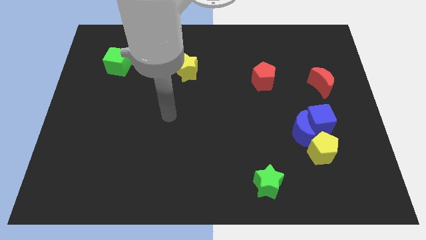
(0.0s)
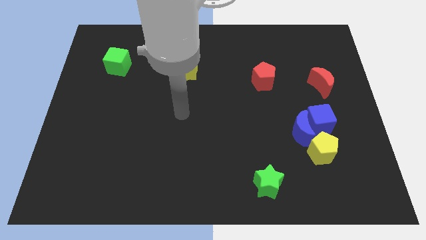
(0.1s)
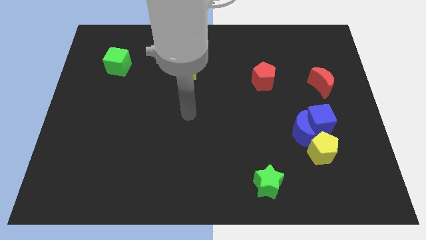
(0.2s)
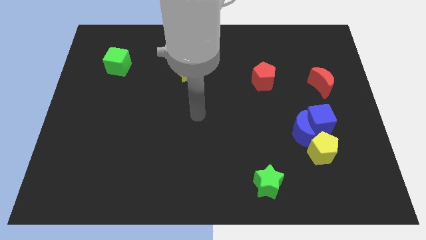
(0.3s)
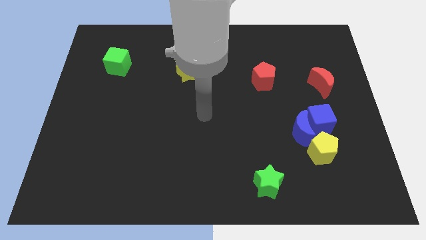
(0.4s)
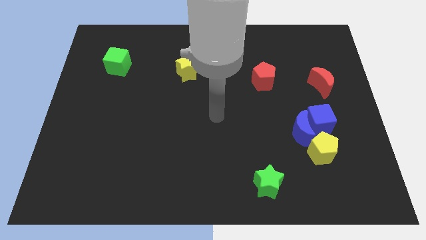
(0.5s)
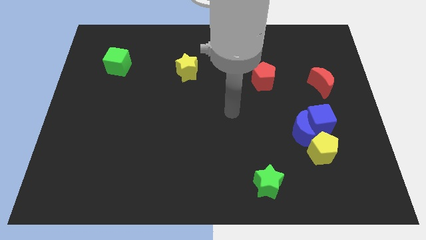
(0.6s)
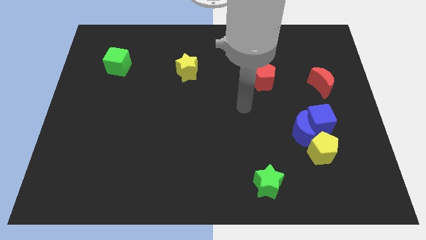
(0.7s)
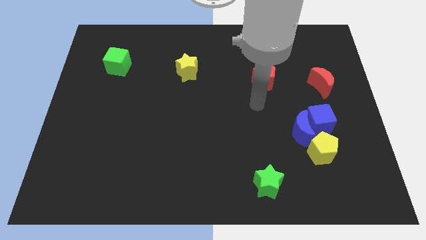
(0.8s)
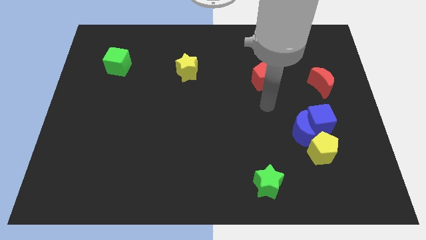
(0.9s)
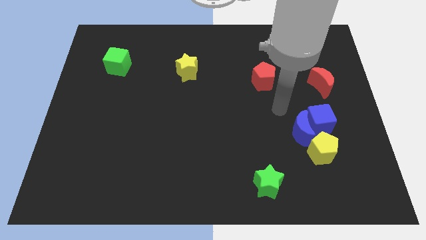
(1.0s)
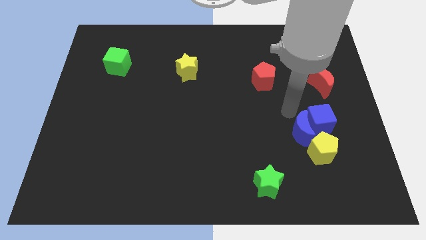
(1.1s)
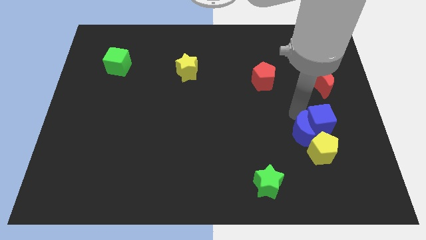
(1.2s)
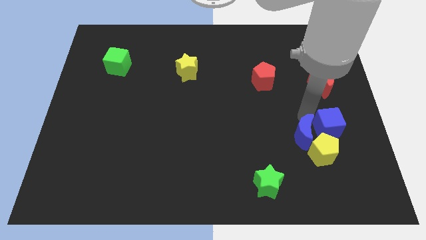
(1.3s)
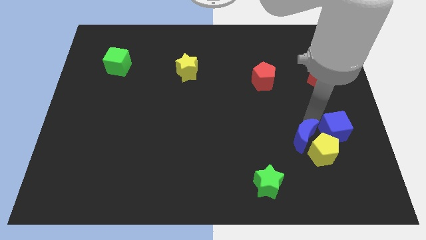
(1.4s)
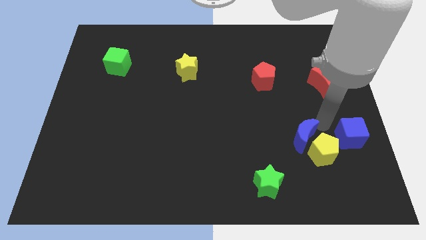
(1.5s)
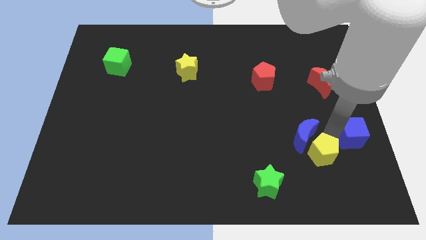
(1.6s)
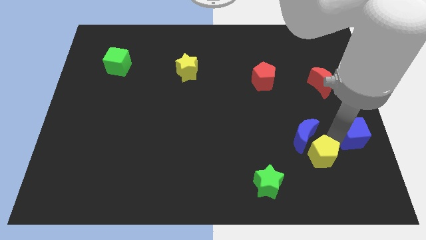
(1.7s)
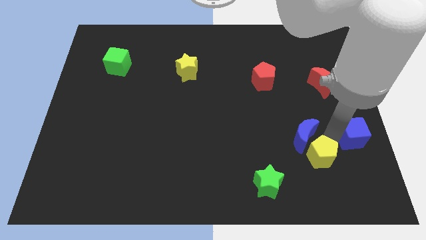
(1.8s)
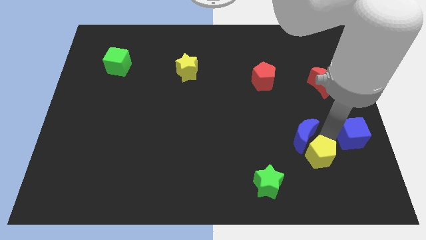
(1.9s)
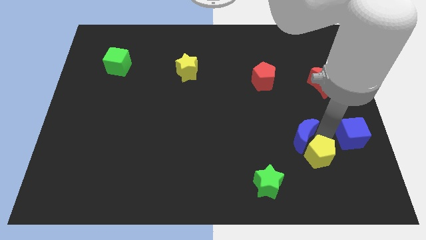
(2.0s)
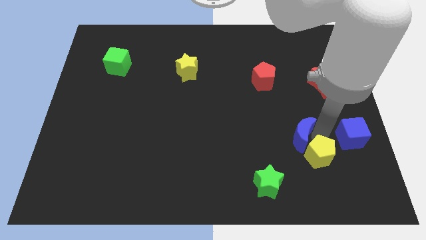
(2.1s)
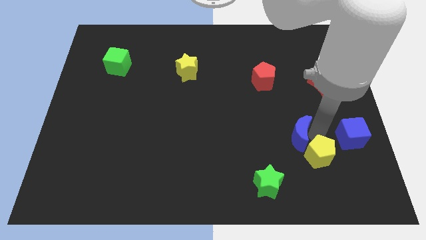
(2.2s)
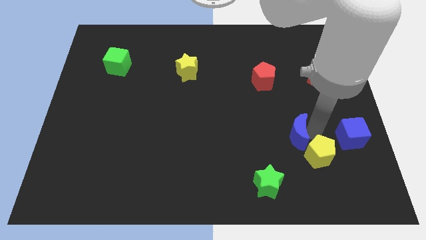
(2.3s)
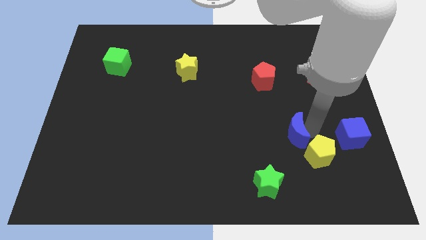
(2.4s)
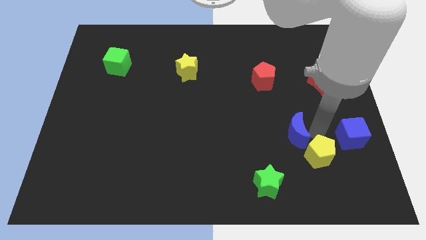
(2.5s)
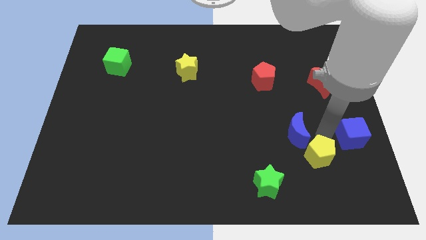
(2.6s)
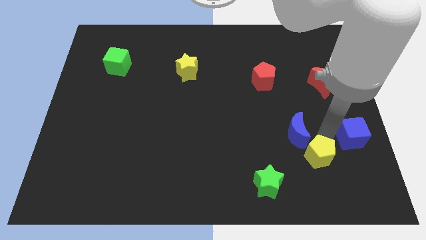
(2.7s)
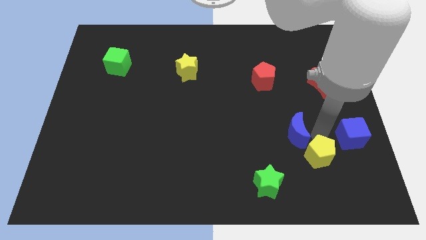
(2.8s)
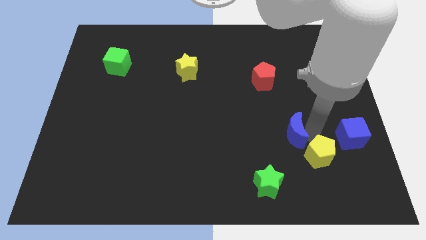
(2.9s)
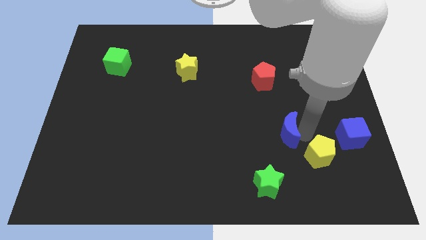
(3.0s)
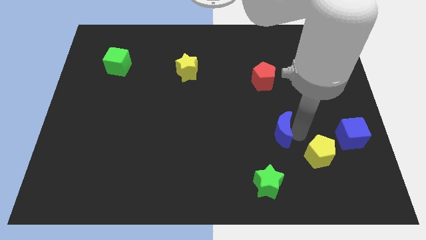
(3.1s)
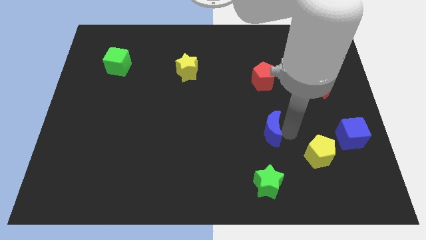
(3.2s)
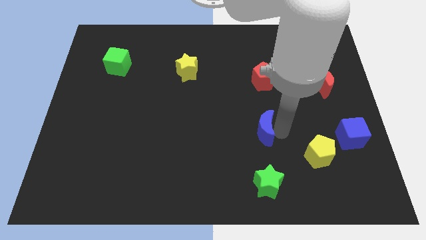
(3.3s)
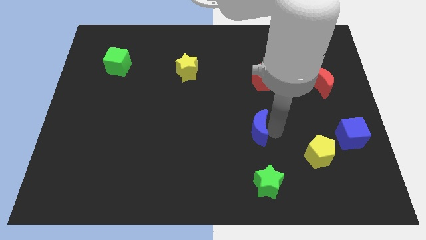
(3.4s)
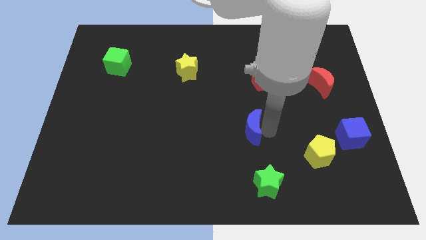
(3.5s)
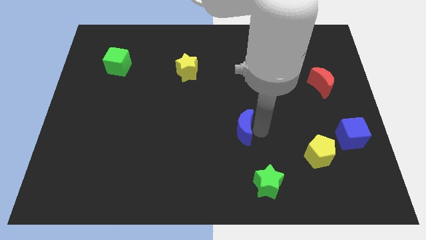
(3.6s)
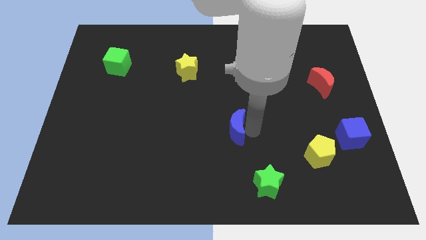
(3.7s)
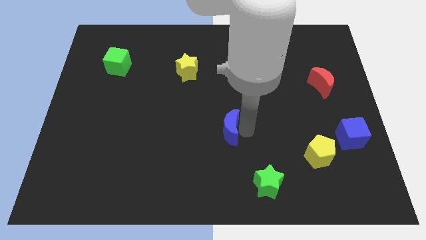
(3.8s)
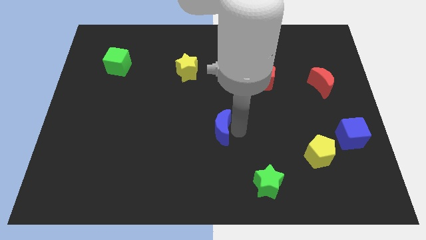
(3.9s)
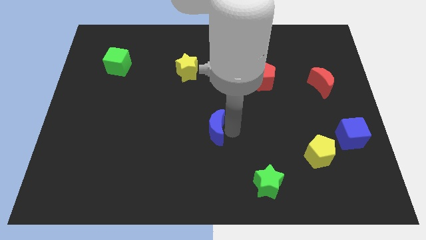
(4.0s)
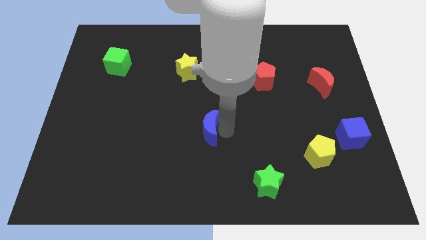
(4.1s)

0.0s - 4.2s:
push the blue moon to the left

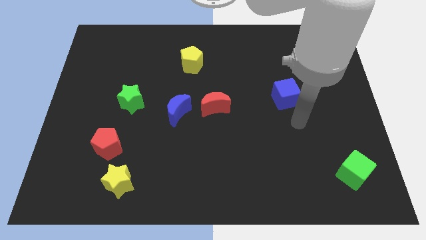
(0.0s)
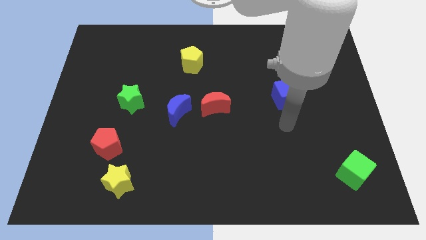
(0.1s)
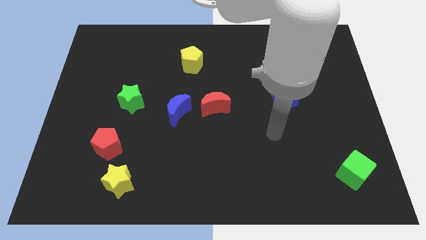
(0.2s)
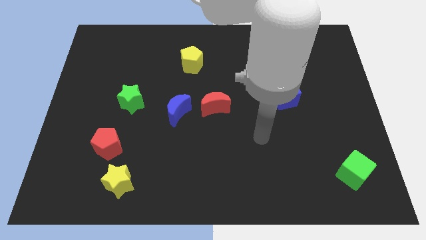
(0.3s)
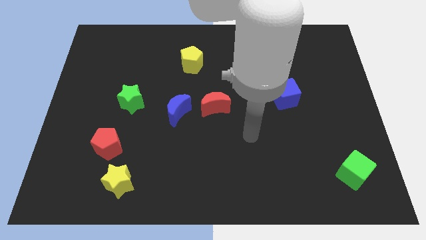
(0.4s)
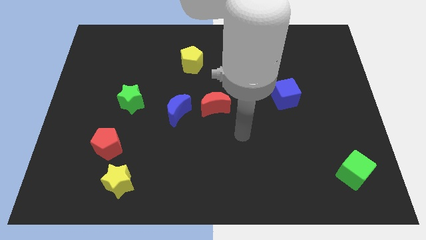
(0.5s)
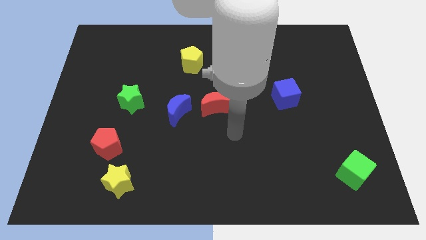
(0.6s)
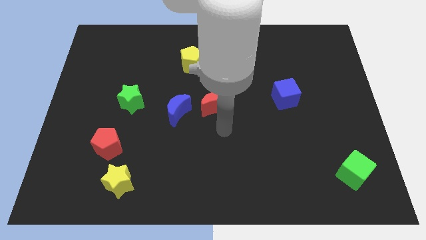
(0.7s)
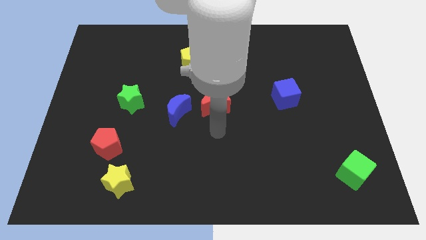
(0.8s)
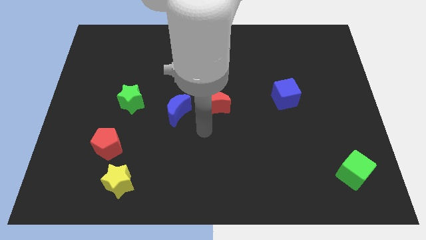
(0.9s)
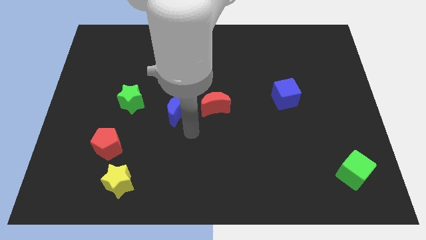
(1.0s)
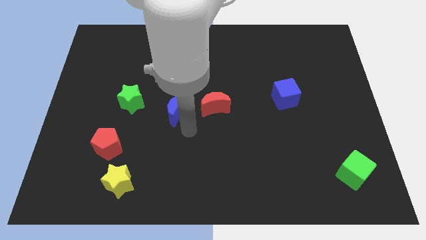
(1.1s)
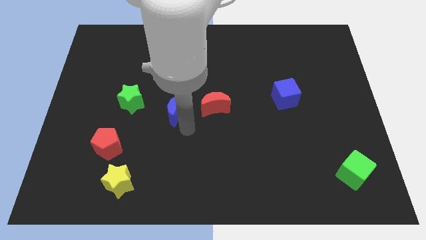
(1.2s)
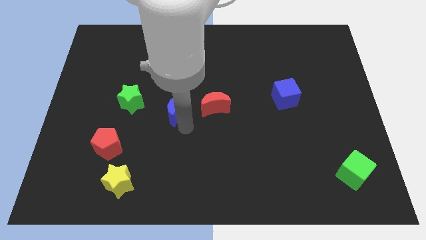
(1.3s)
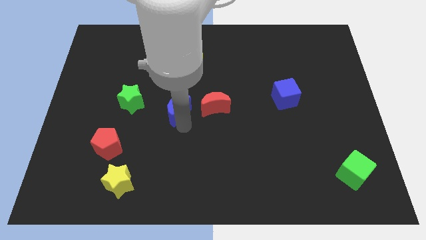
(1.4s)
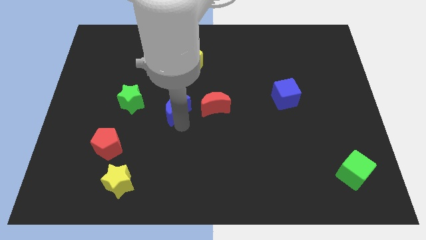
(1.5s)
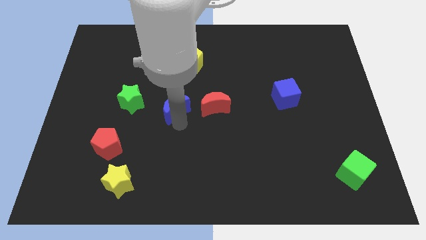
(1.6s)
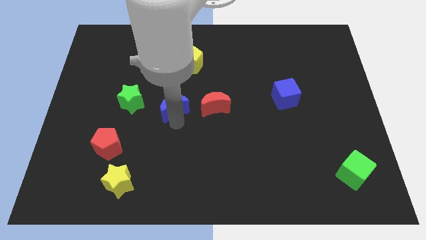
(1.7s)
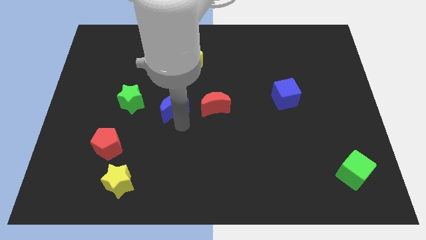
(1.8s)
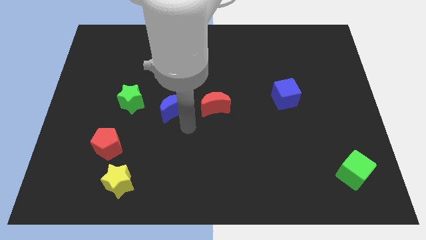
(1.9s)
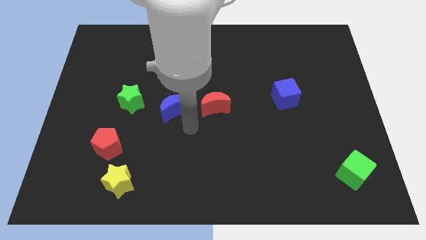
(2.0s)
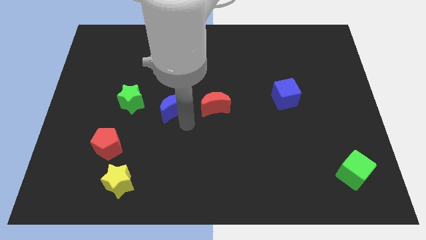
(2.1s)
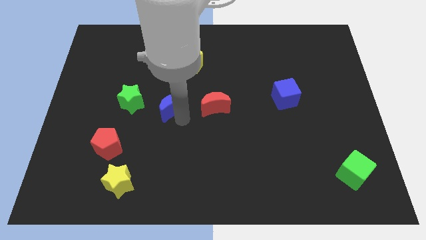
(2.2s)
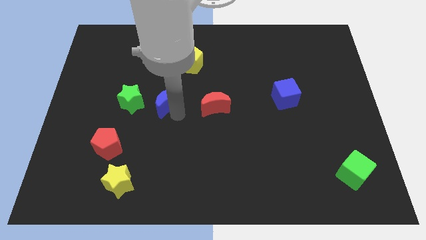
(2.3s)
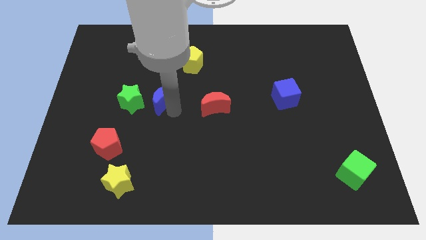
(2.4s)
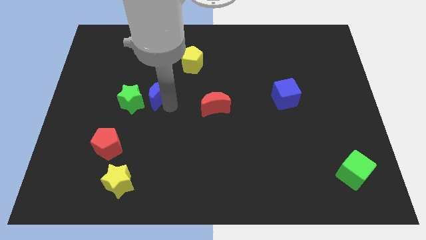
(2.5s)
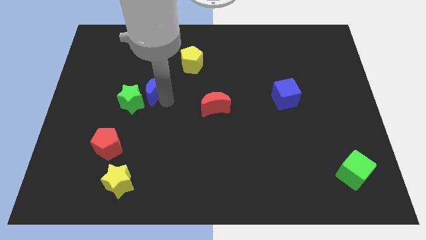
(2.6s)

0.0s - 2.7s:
push the blue moon up and to the left diagonally a little

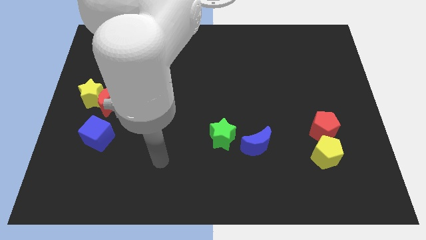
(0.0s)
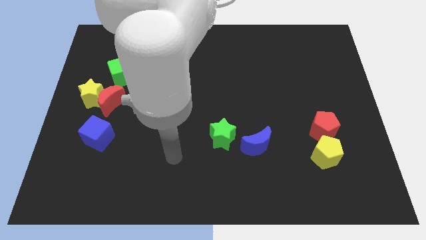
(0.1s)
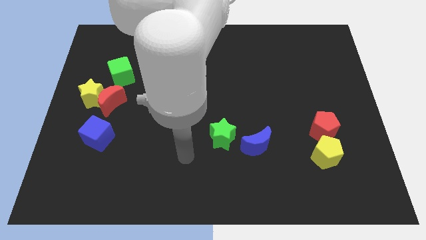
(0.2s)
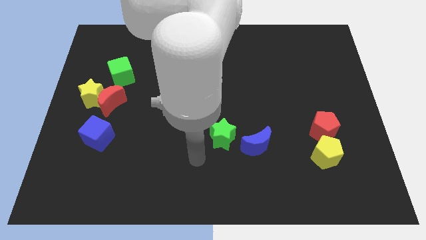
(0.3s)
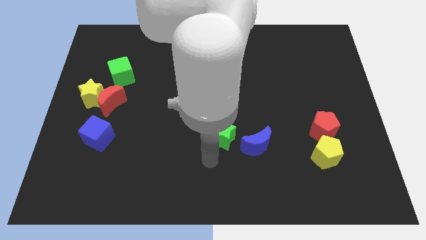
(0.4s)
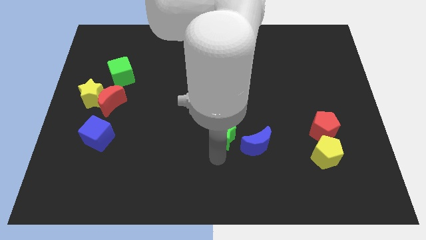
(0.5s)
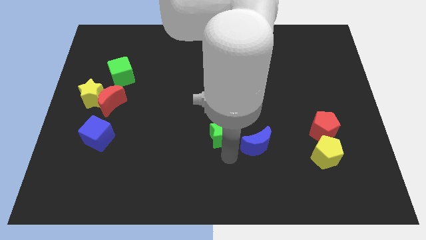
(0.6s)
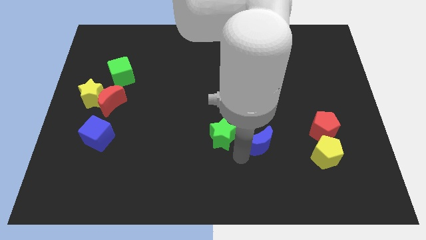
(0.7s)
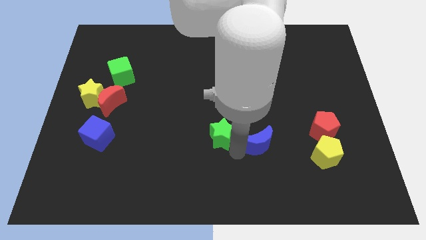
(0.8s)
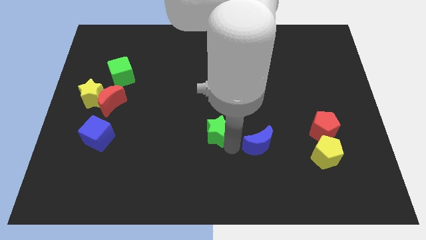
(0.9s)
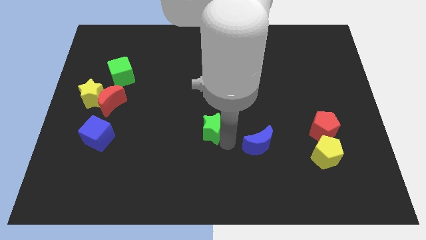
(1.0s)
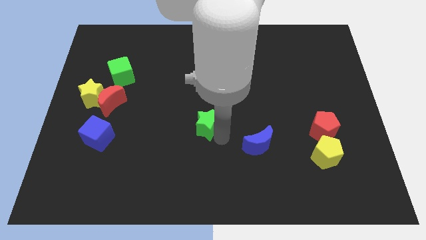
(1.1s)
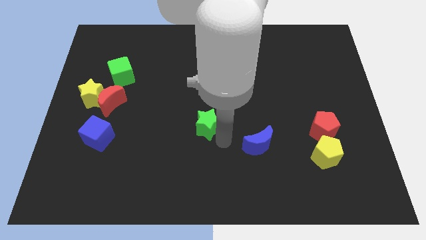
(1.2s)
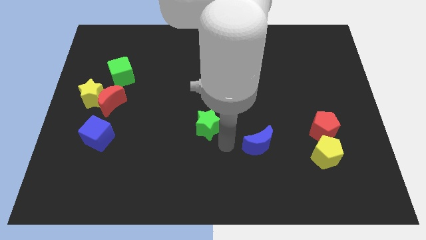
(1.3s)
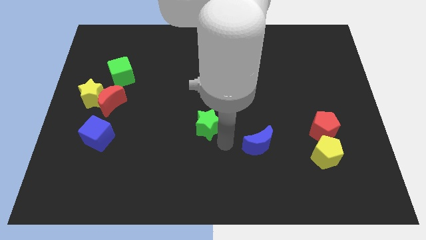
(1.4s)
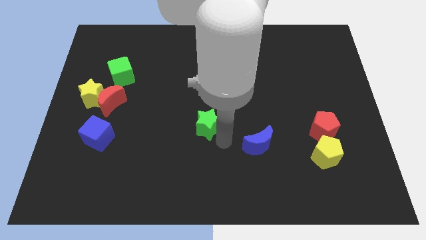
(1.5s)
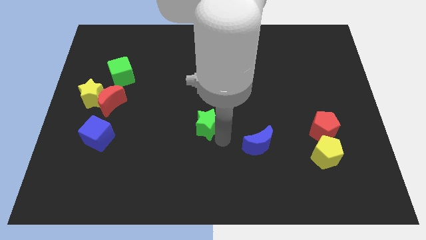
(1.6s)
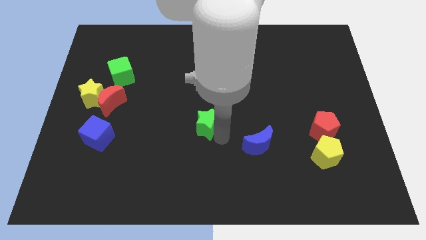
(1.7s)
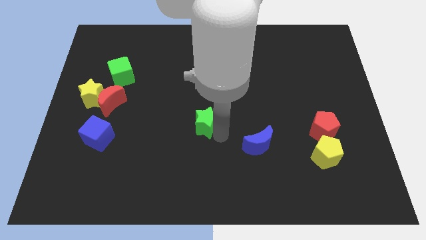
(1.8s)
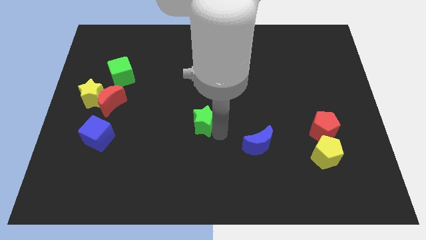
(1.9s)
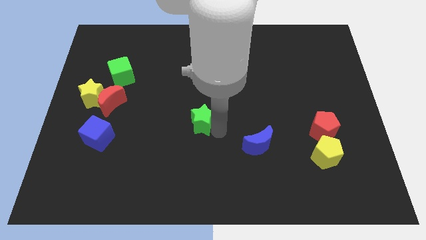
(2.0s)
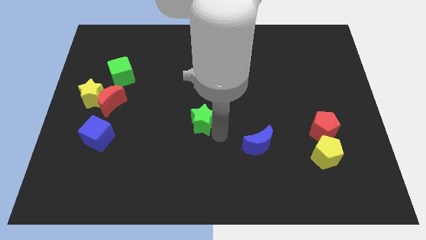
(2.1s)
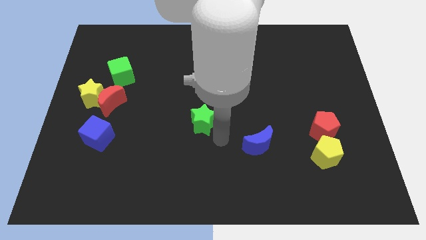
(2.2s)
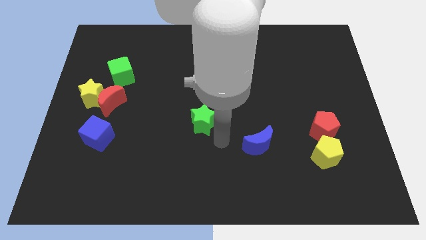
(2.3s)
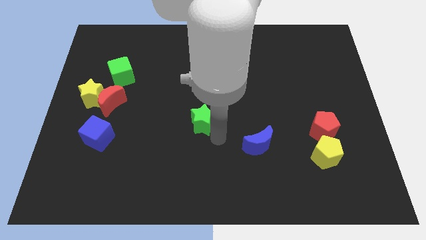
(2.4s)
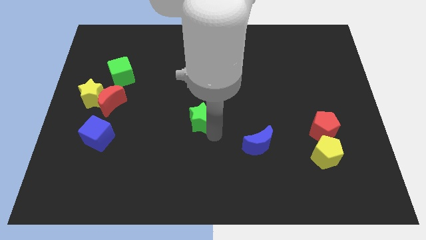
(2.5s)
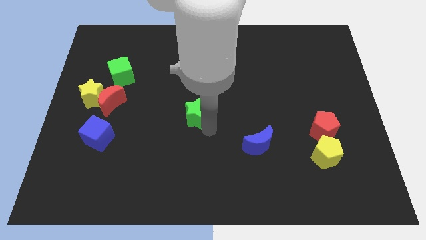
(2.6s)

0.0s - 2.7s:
move the green star slightly diagonally up and to the left
